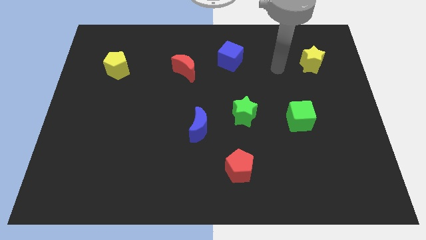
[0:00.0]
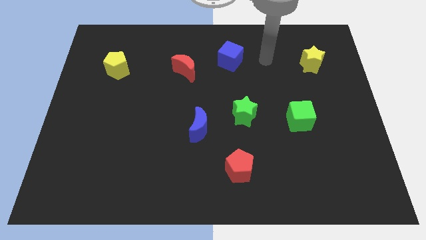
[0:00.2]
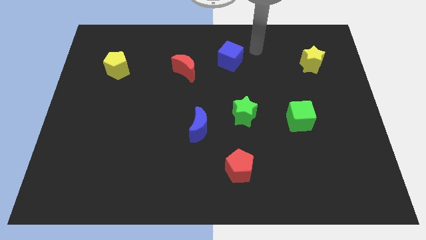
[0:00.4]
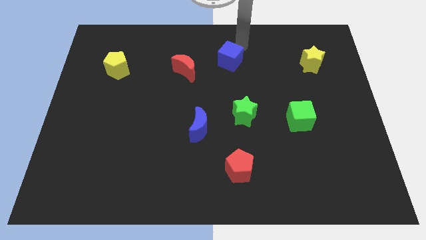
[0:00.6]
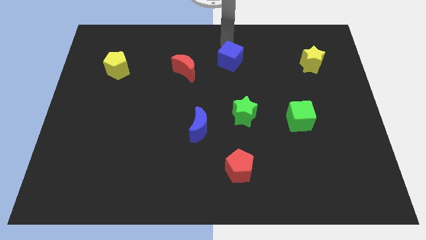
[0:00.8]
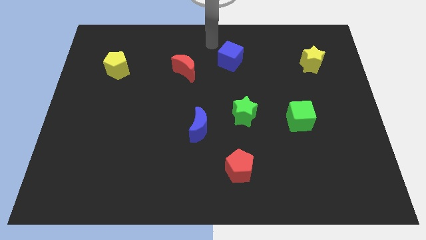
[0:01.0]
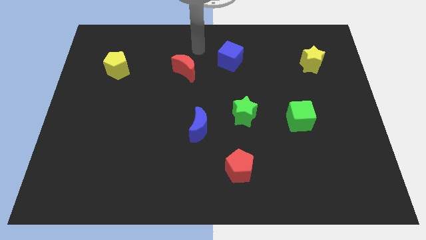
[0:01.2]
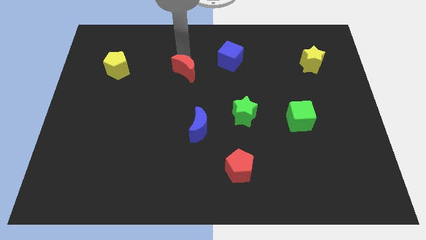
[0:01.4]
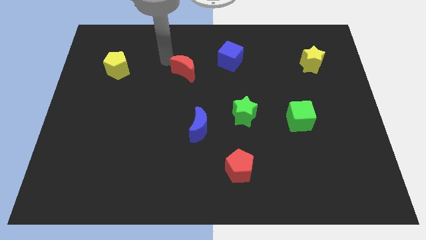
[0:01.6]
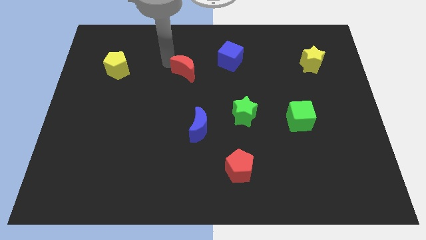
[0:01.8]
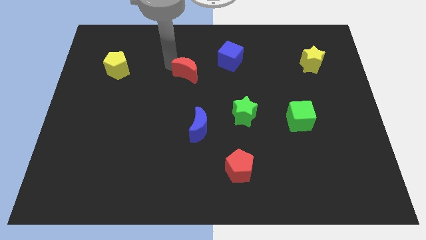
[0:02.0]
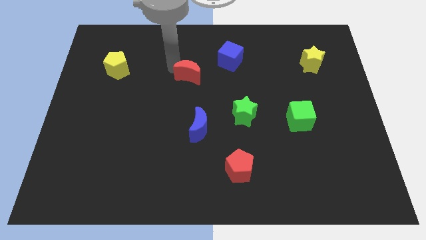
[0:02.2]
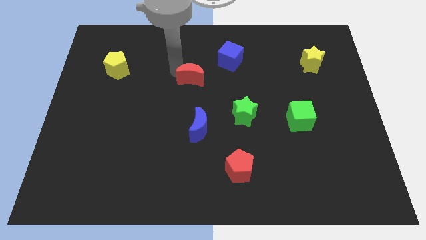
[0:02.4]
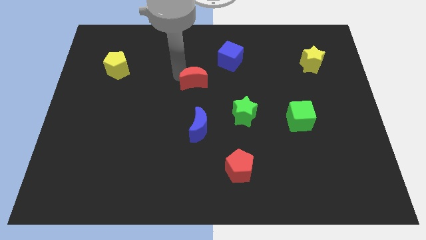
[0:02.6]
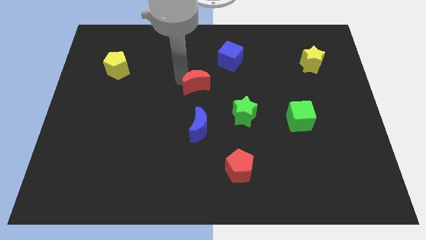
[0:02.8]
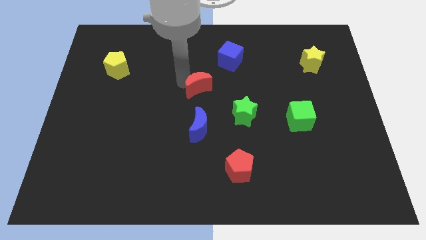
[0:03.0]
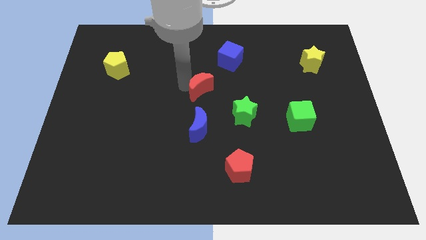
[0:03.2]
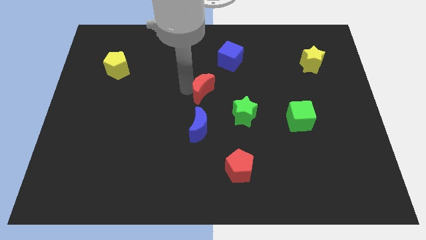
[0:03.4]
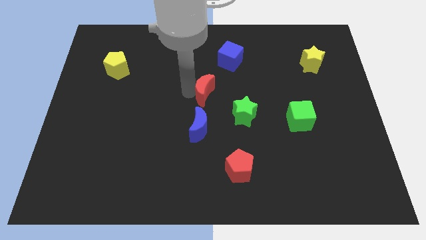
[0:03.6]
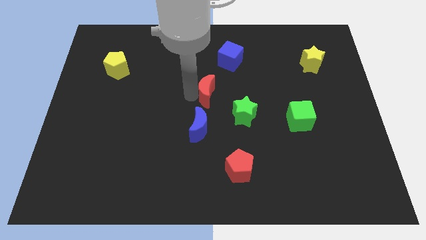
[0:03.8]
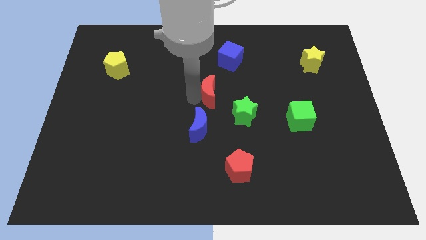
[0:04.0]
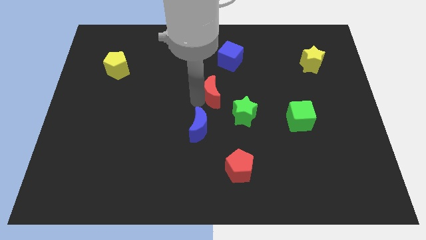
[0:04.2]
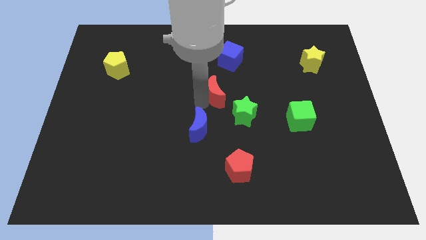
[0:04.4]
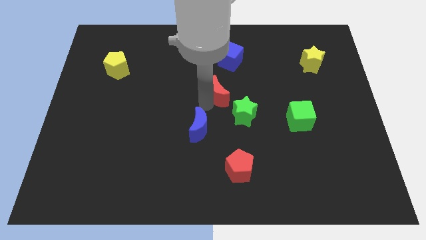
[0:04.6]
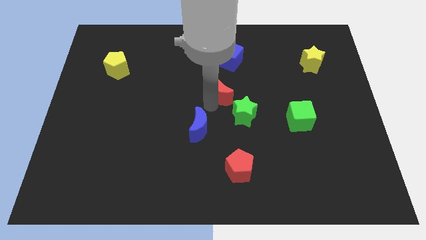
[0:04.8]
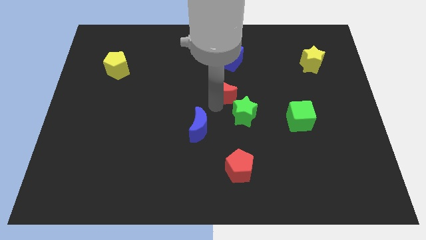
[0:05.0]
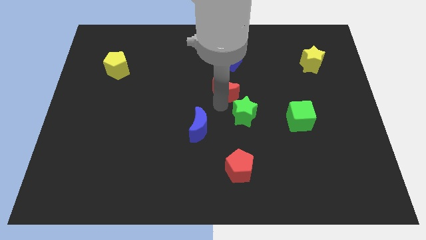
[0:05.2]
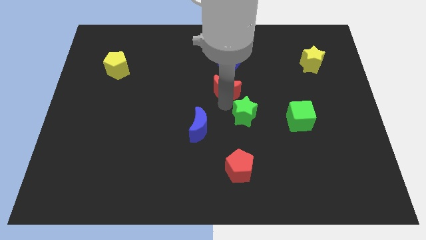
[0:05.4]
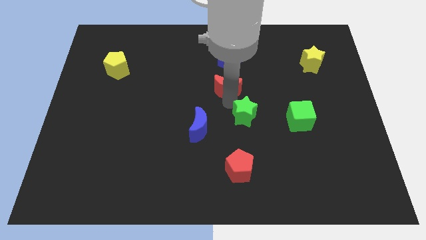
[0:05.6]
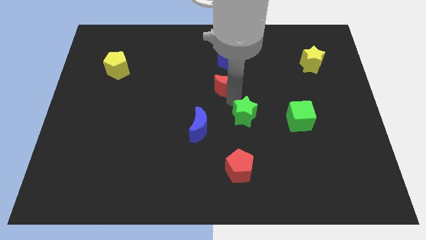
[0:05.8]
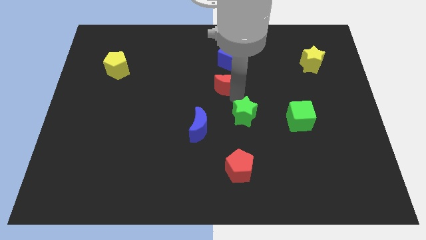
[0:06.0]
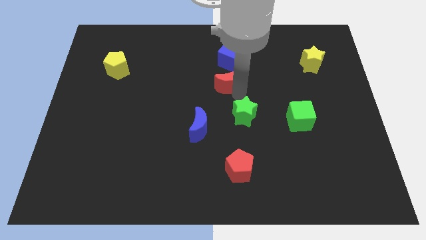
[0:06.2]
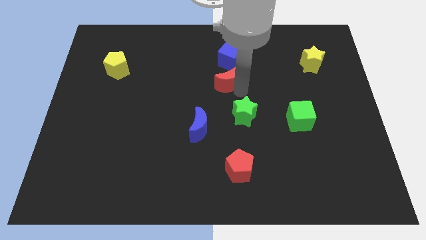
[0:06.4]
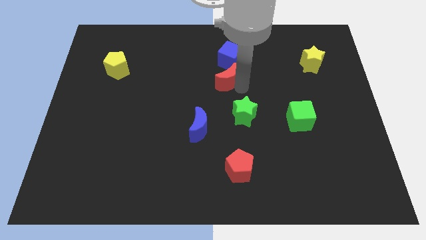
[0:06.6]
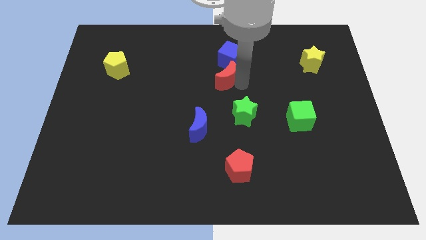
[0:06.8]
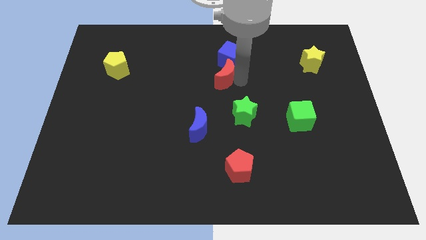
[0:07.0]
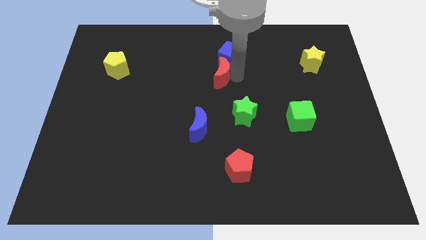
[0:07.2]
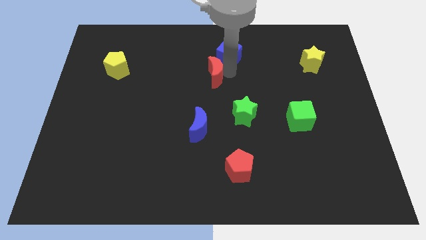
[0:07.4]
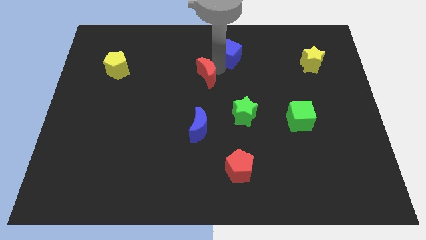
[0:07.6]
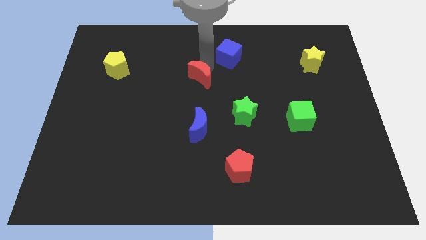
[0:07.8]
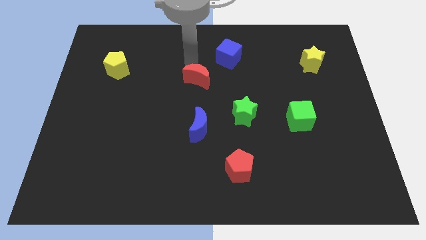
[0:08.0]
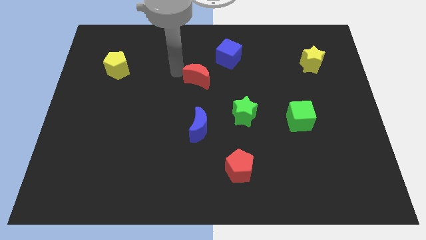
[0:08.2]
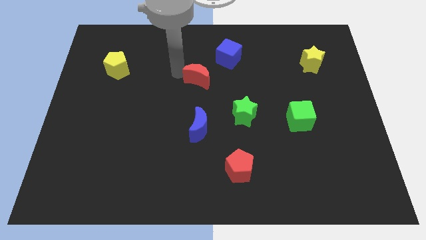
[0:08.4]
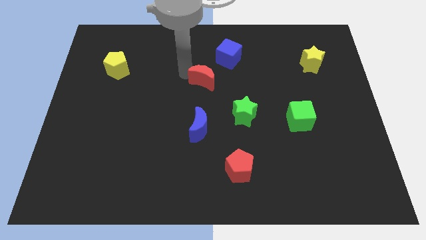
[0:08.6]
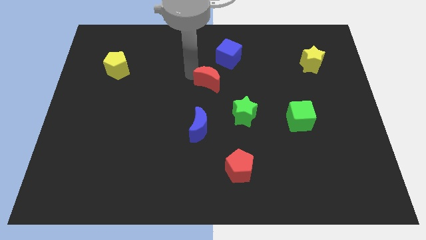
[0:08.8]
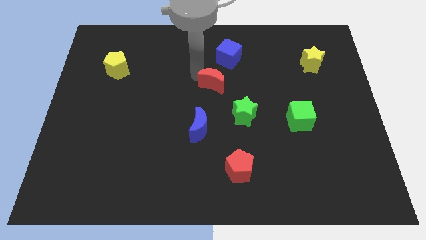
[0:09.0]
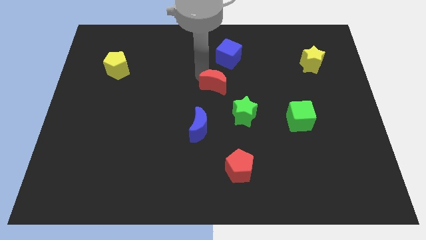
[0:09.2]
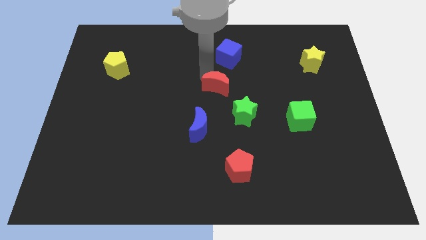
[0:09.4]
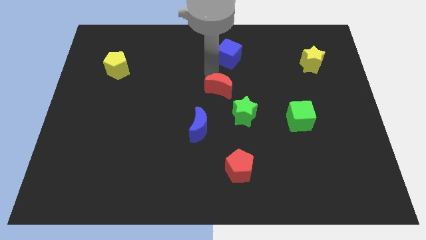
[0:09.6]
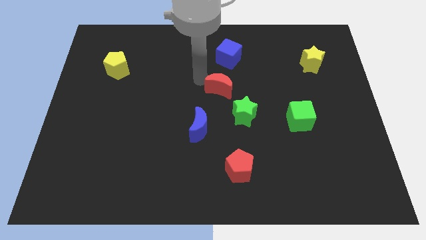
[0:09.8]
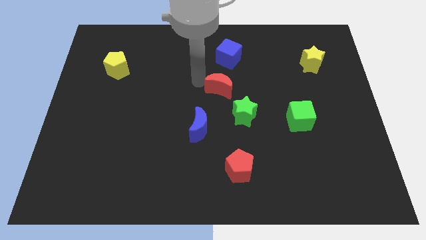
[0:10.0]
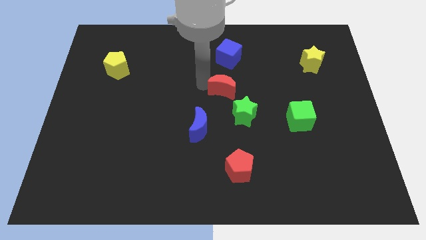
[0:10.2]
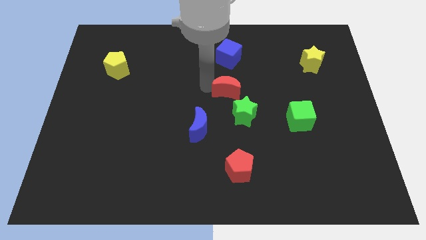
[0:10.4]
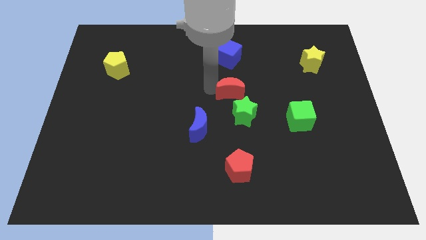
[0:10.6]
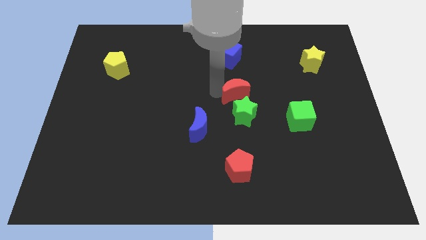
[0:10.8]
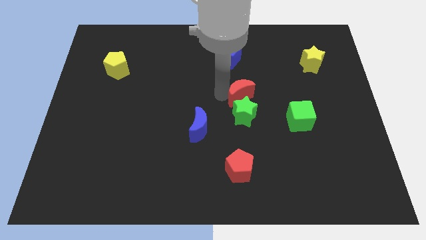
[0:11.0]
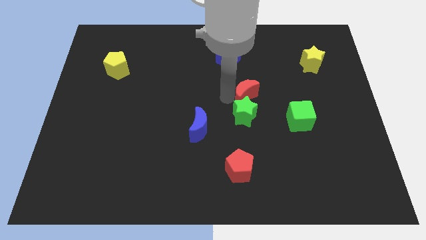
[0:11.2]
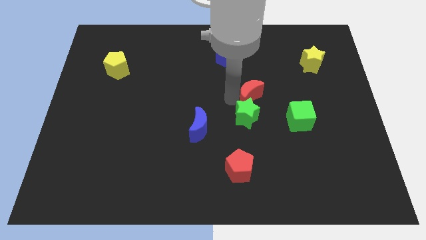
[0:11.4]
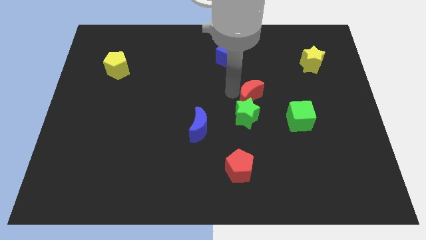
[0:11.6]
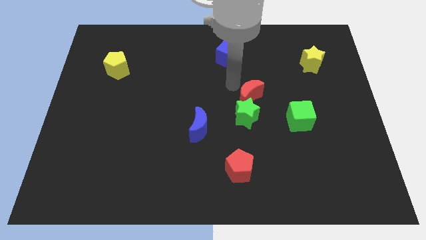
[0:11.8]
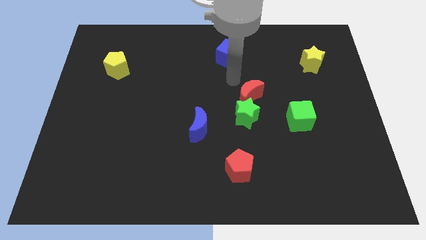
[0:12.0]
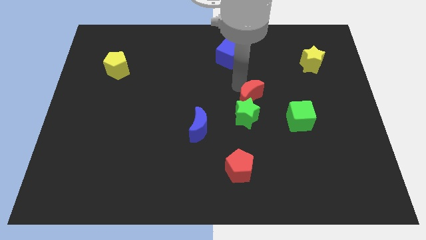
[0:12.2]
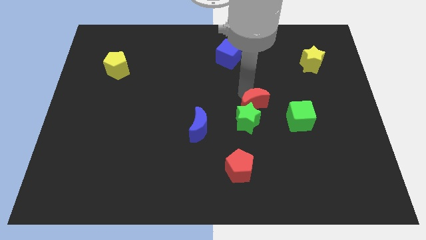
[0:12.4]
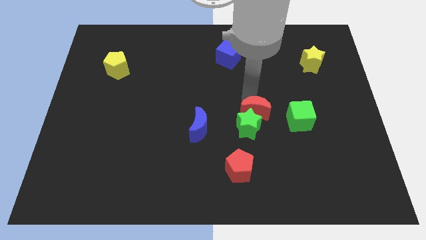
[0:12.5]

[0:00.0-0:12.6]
move the red moon downwards and right diagonally

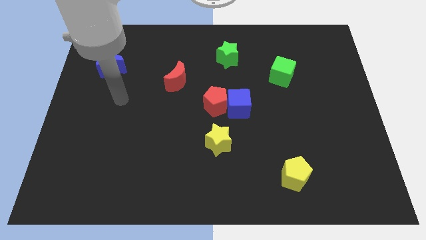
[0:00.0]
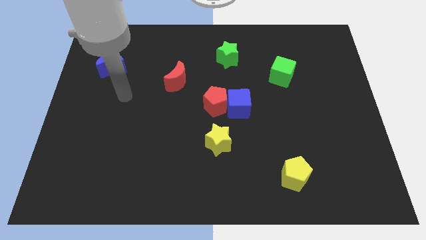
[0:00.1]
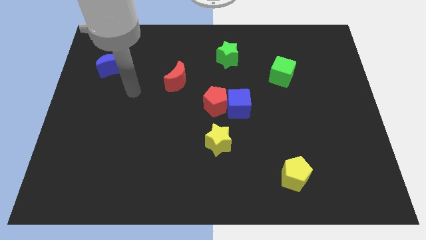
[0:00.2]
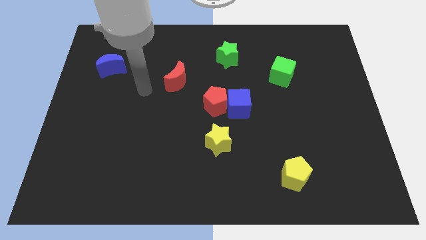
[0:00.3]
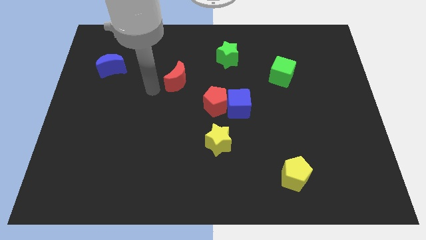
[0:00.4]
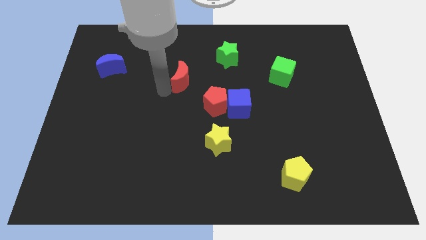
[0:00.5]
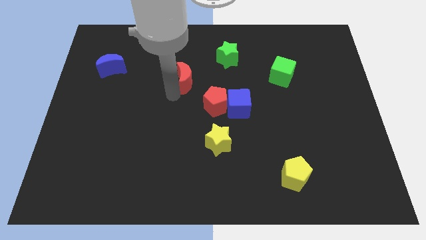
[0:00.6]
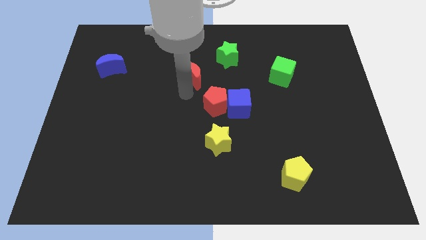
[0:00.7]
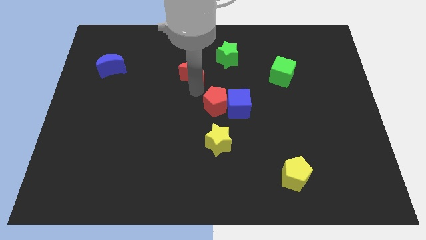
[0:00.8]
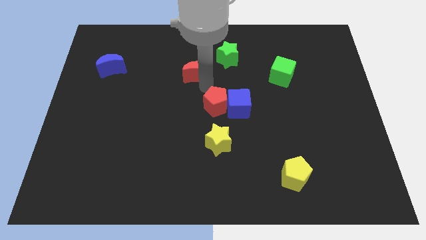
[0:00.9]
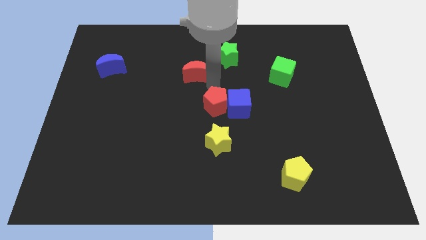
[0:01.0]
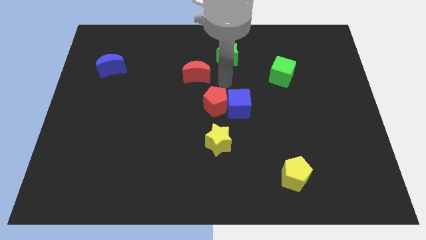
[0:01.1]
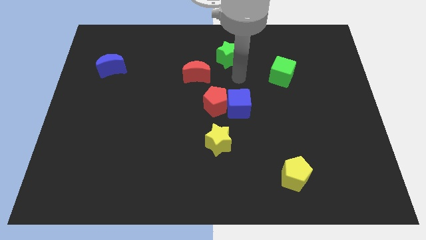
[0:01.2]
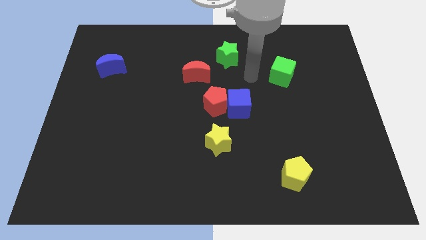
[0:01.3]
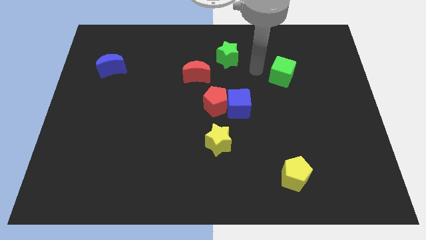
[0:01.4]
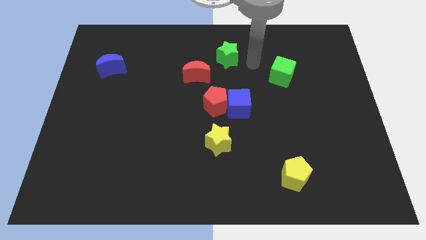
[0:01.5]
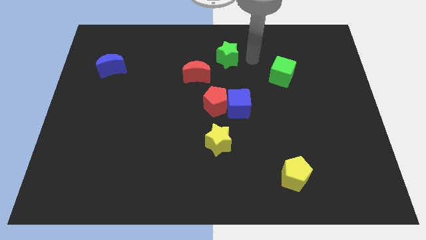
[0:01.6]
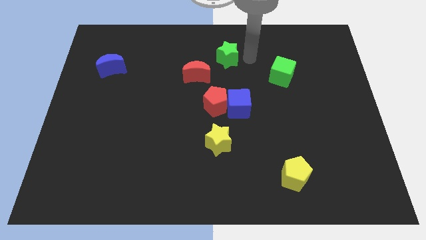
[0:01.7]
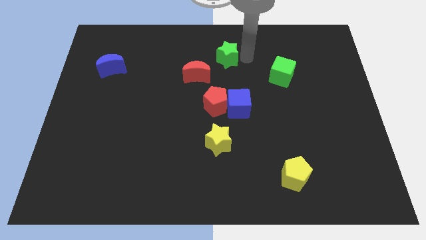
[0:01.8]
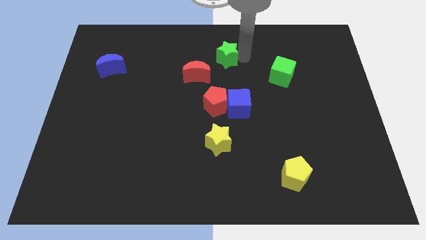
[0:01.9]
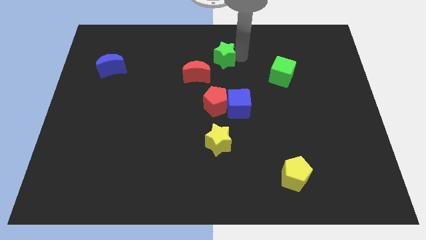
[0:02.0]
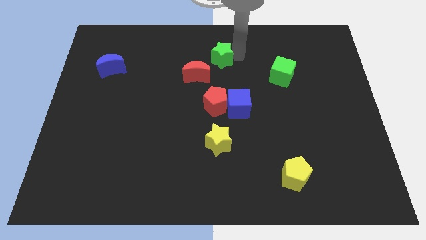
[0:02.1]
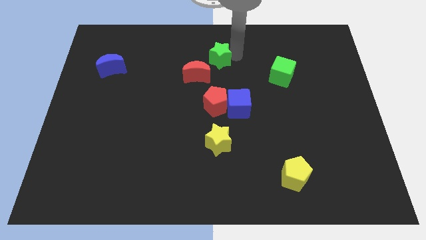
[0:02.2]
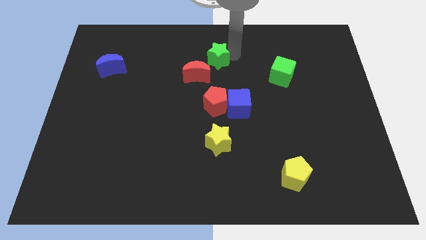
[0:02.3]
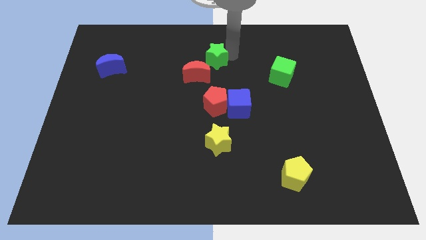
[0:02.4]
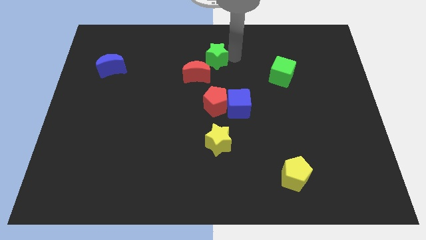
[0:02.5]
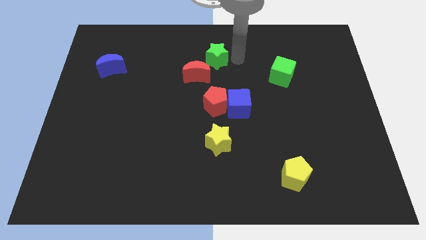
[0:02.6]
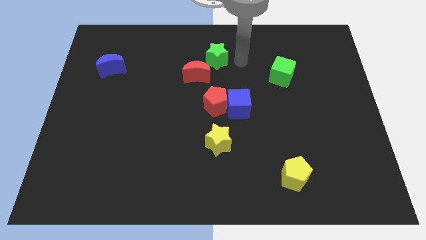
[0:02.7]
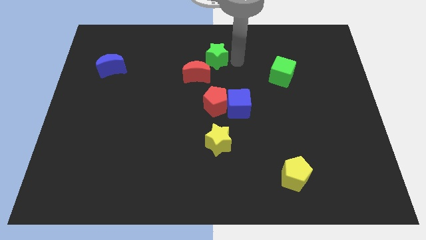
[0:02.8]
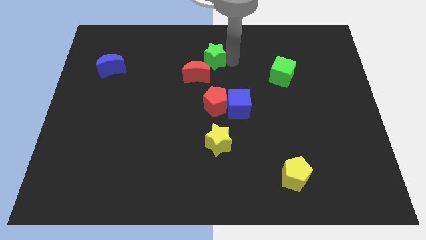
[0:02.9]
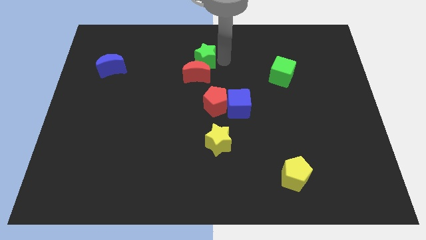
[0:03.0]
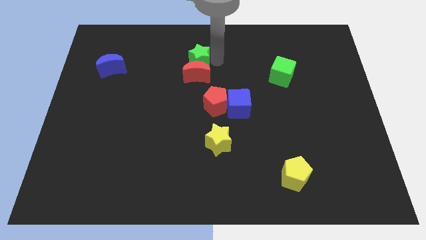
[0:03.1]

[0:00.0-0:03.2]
slightly slide the green star to the left
